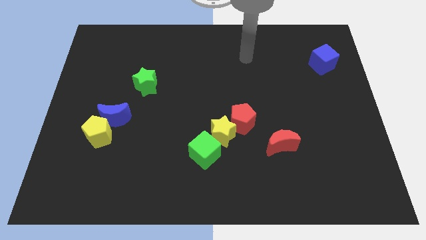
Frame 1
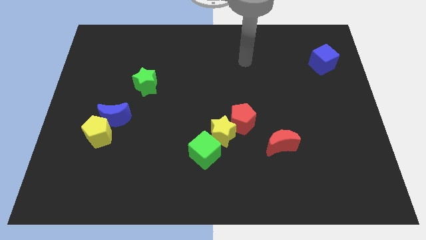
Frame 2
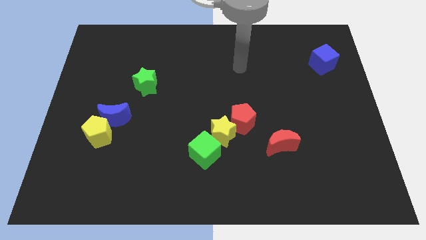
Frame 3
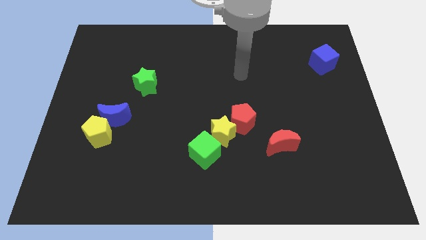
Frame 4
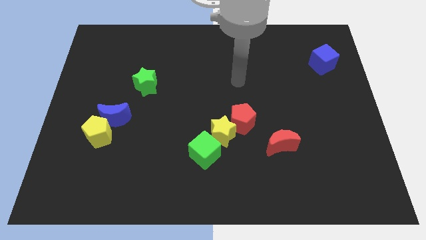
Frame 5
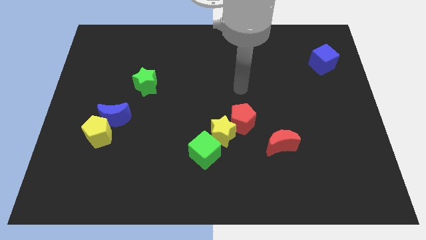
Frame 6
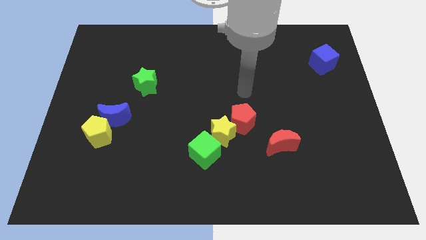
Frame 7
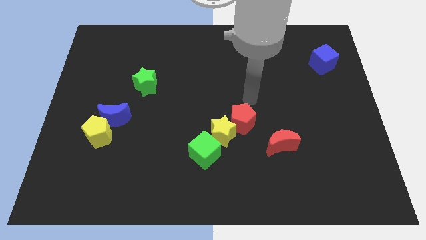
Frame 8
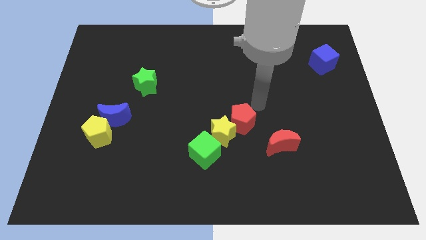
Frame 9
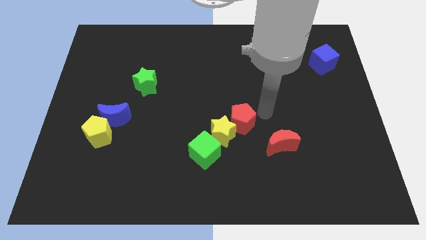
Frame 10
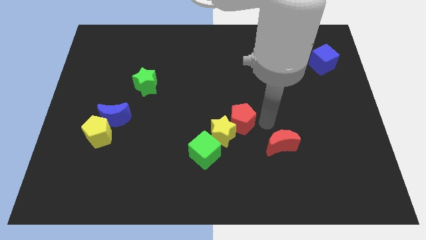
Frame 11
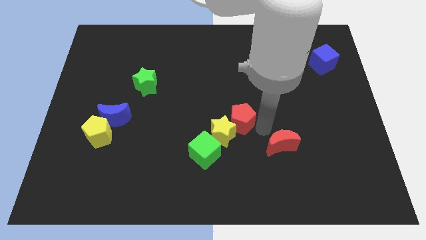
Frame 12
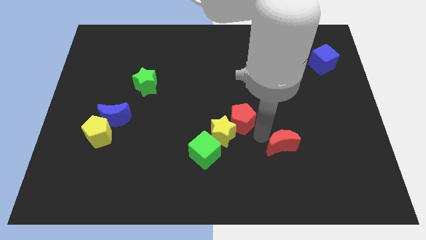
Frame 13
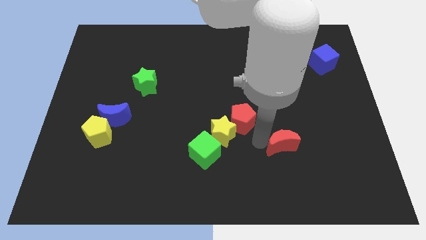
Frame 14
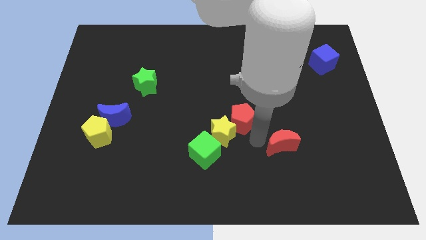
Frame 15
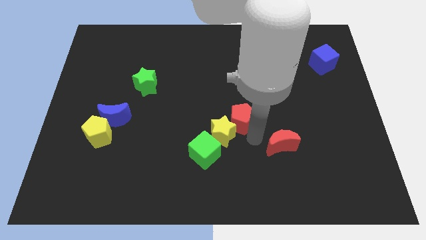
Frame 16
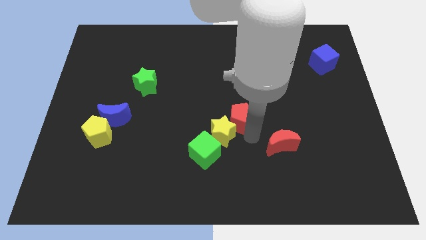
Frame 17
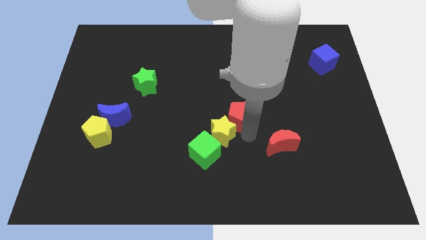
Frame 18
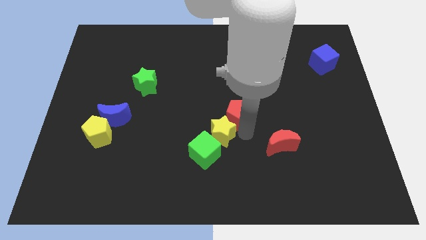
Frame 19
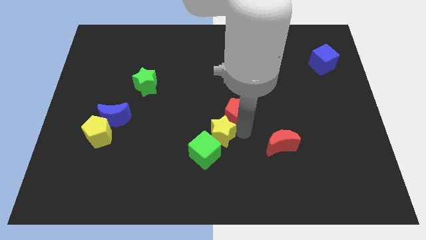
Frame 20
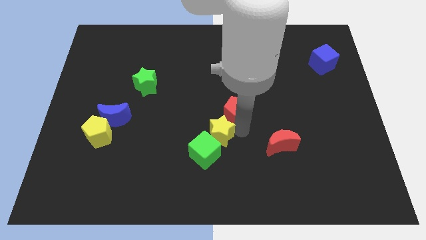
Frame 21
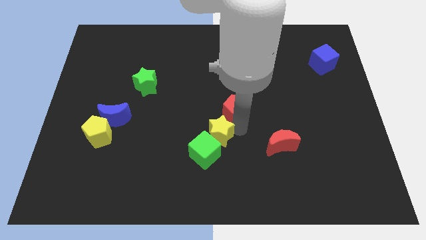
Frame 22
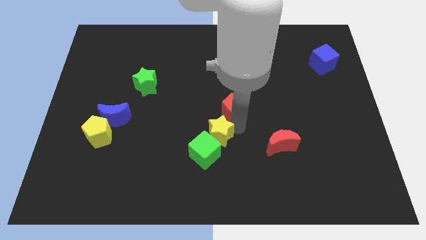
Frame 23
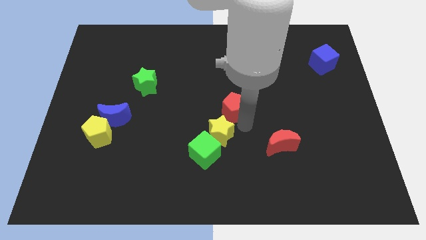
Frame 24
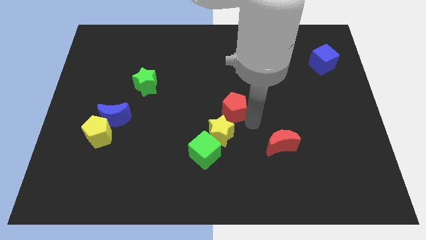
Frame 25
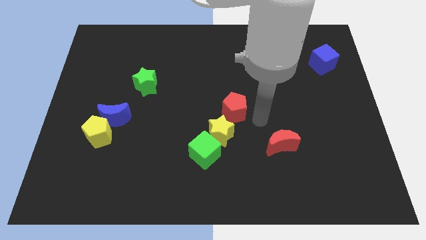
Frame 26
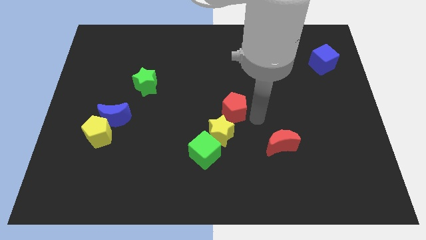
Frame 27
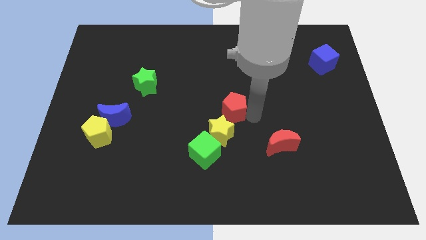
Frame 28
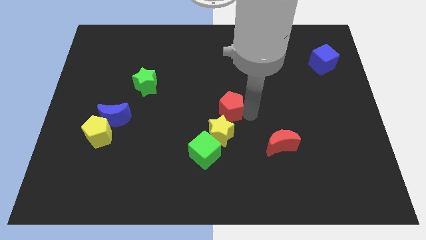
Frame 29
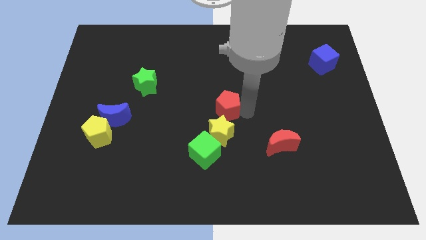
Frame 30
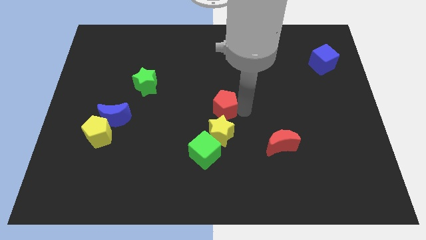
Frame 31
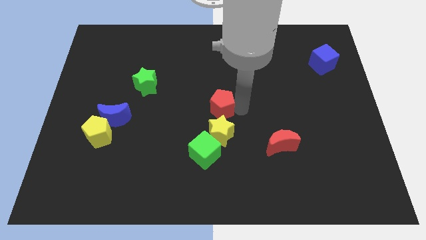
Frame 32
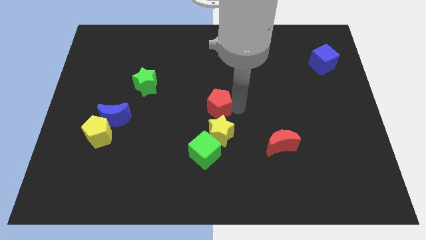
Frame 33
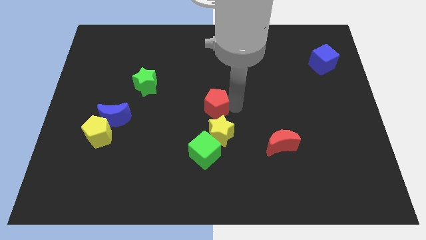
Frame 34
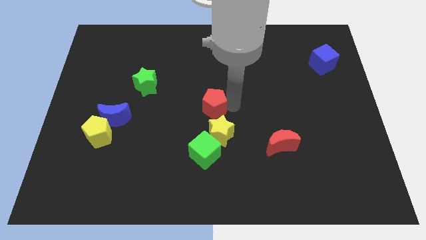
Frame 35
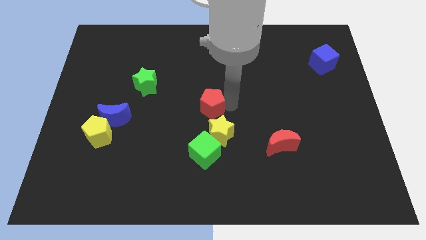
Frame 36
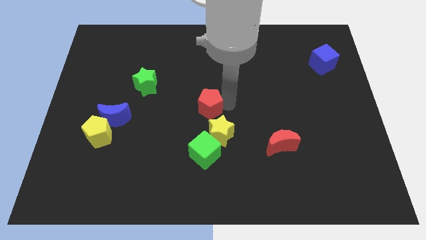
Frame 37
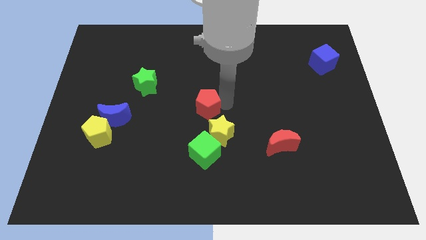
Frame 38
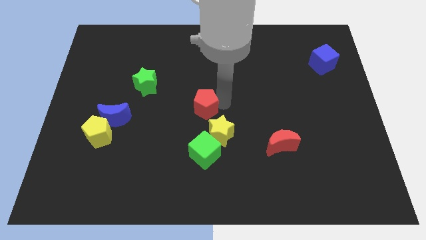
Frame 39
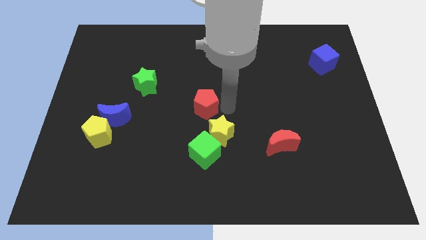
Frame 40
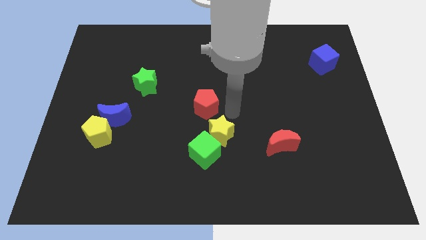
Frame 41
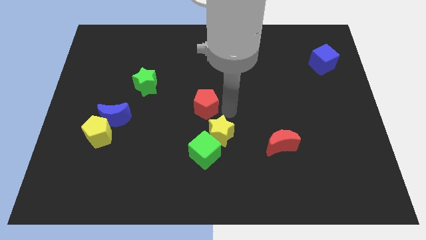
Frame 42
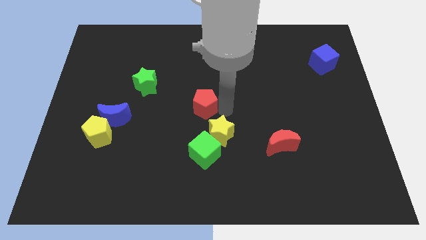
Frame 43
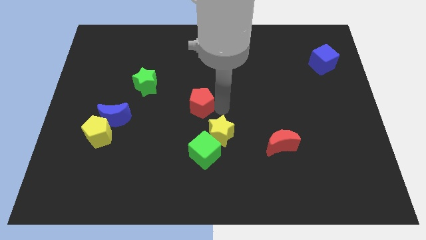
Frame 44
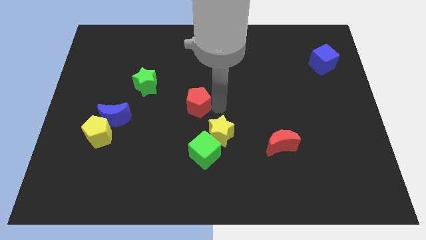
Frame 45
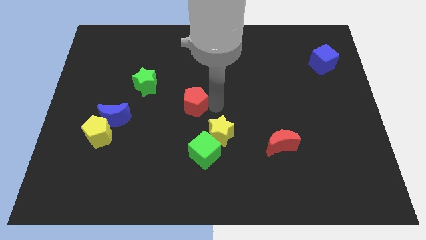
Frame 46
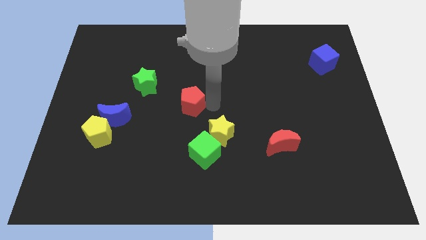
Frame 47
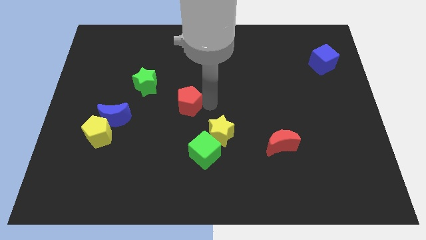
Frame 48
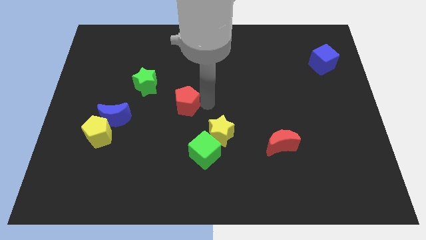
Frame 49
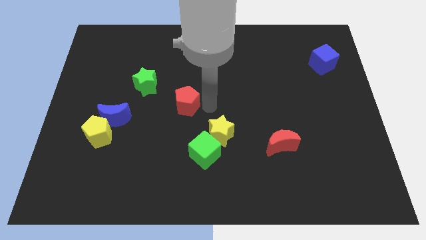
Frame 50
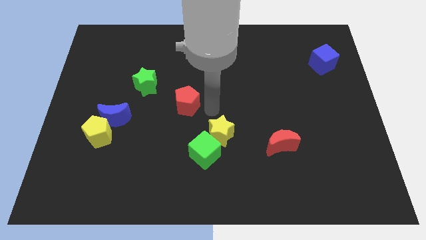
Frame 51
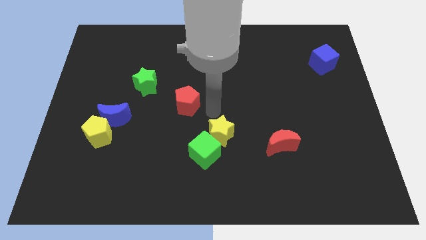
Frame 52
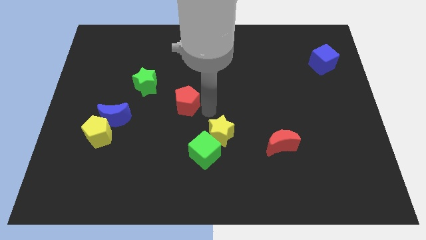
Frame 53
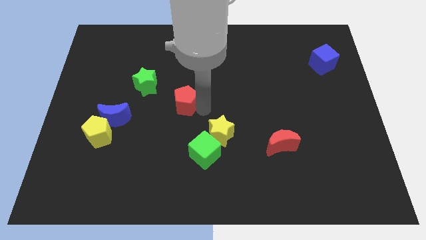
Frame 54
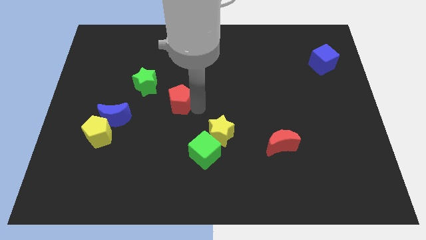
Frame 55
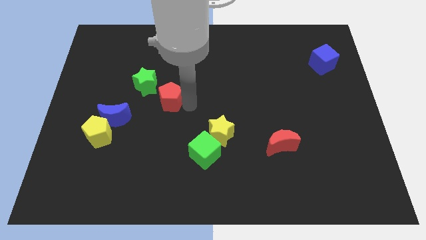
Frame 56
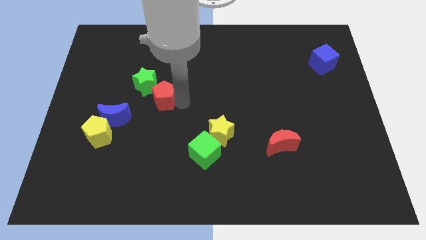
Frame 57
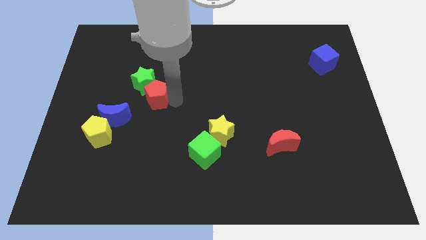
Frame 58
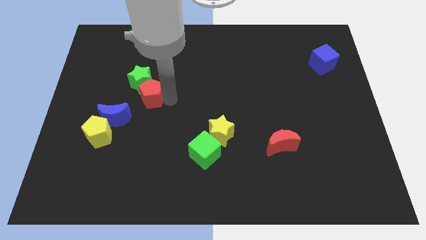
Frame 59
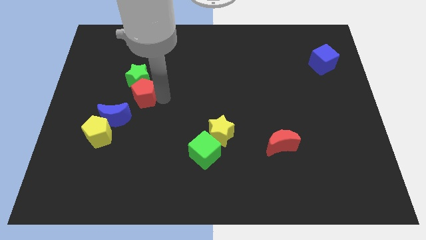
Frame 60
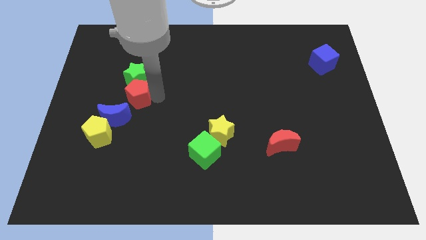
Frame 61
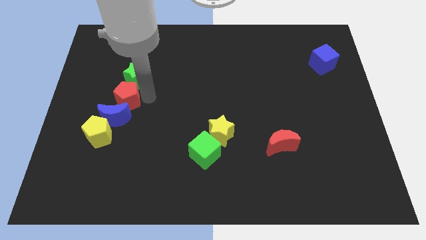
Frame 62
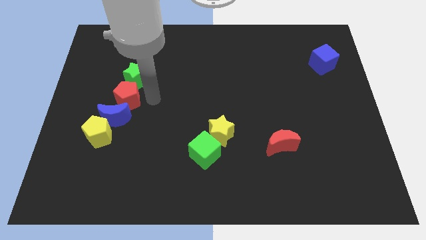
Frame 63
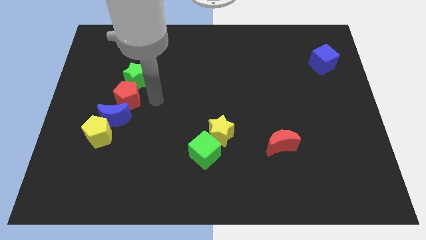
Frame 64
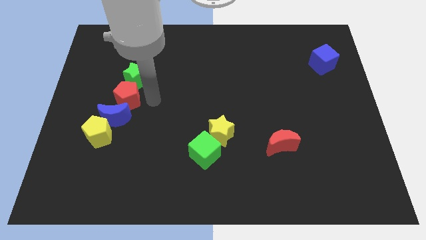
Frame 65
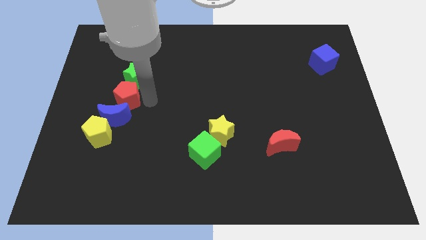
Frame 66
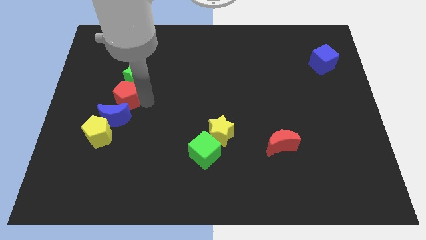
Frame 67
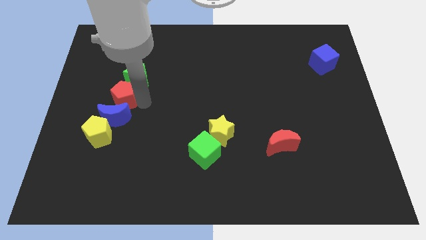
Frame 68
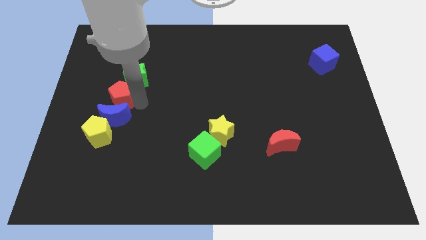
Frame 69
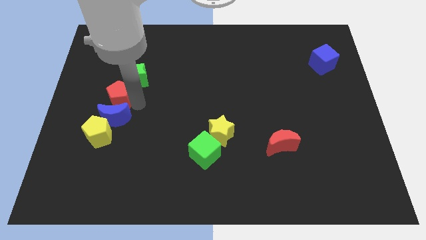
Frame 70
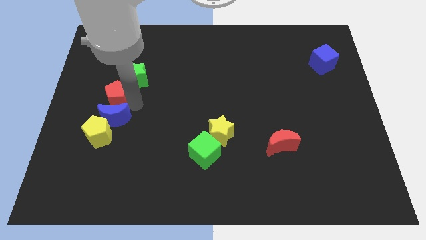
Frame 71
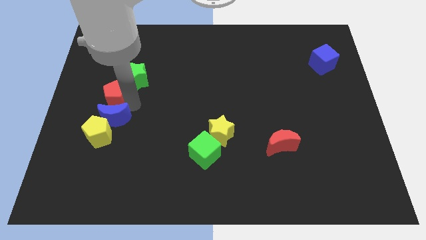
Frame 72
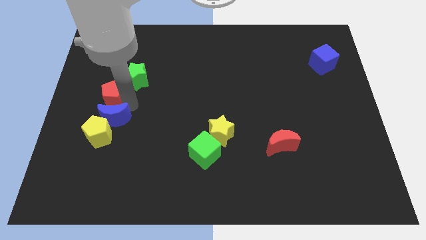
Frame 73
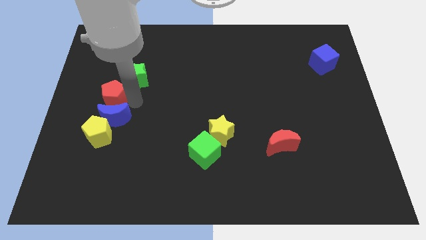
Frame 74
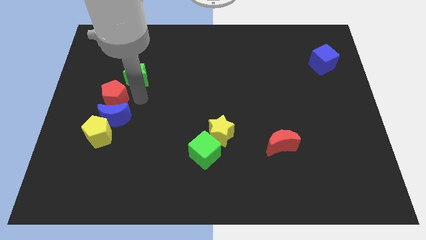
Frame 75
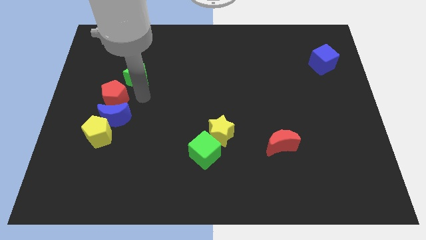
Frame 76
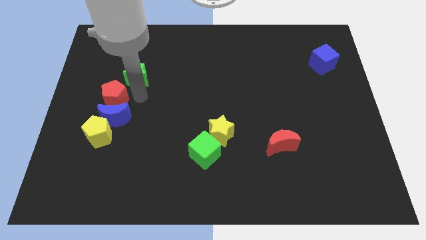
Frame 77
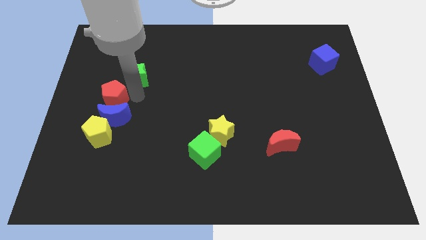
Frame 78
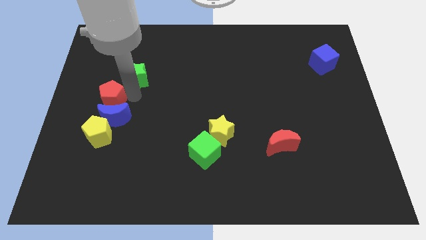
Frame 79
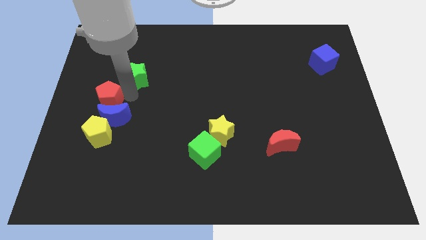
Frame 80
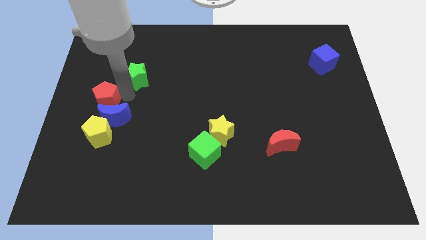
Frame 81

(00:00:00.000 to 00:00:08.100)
push the red pentagon to the left side of the board
